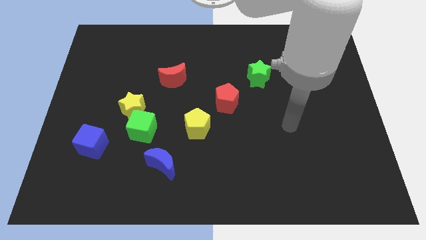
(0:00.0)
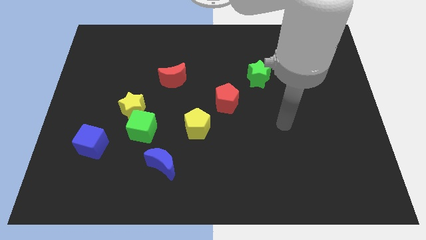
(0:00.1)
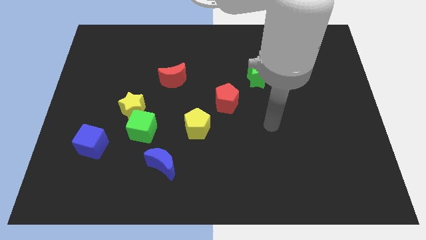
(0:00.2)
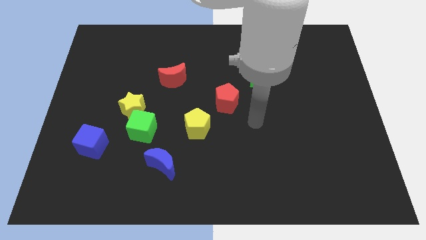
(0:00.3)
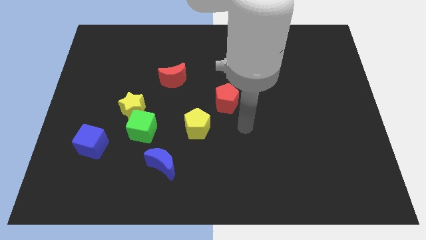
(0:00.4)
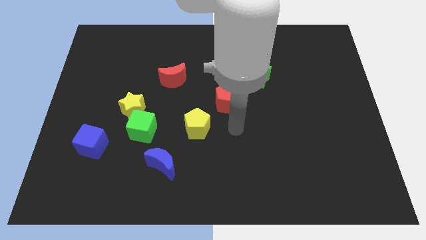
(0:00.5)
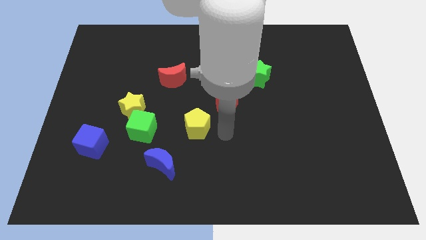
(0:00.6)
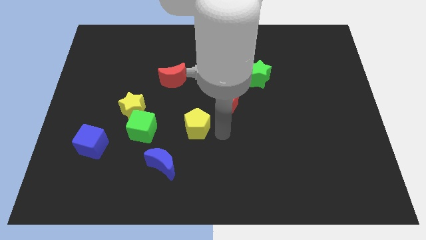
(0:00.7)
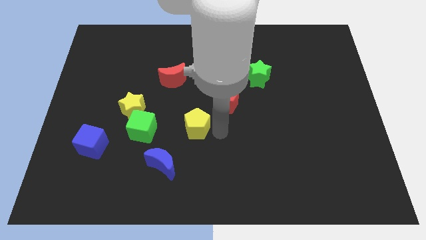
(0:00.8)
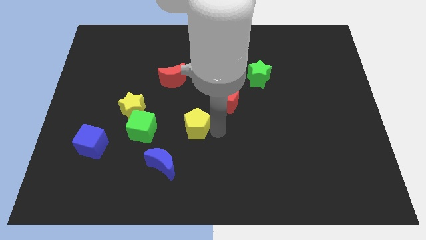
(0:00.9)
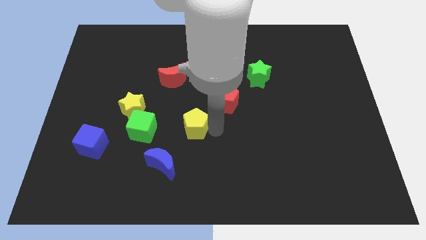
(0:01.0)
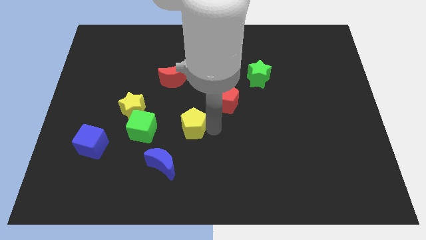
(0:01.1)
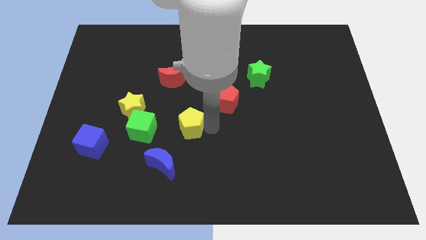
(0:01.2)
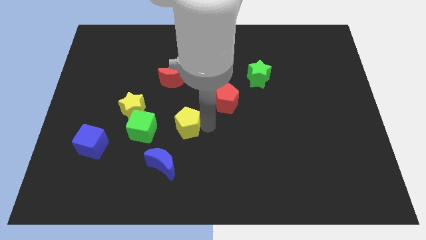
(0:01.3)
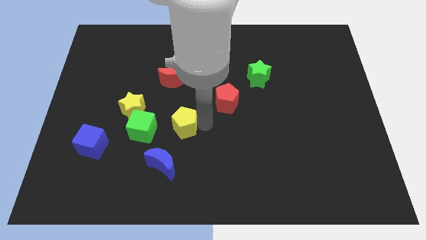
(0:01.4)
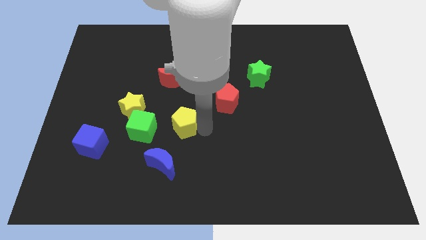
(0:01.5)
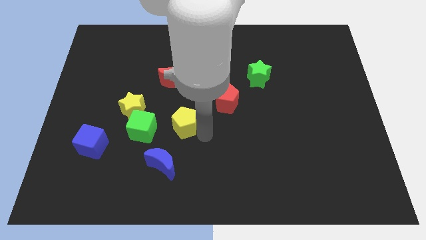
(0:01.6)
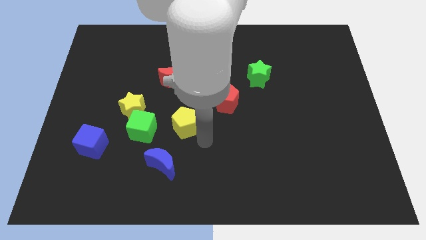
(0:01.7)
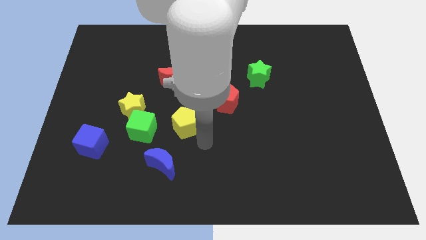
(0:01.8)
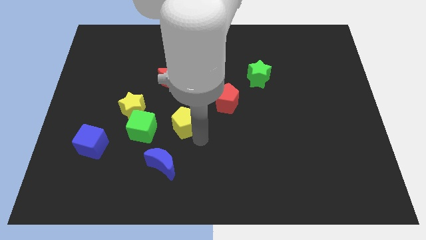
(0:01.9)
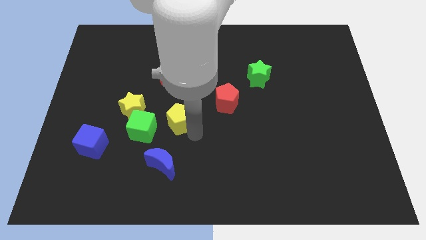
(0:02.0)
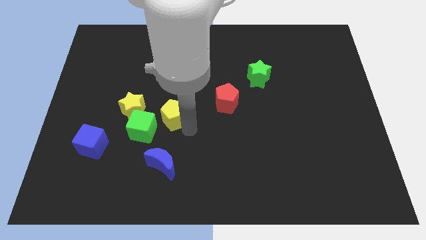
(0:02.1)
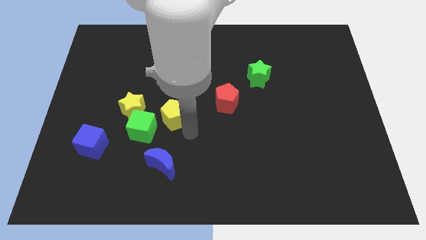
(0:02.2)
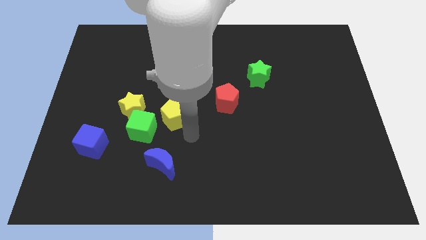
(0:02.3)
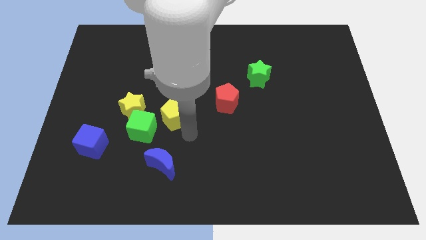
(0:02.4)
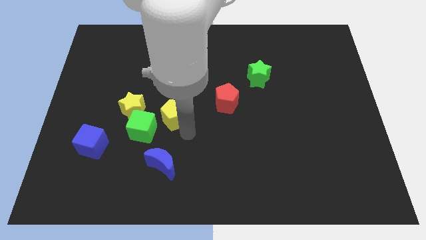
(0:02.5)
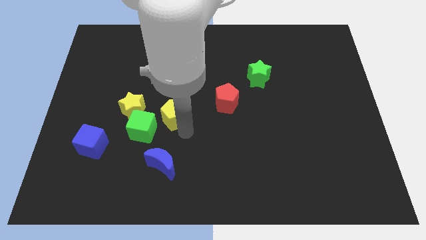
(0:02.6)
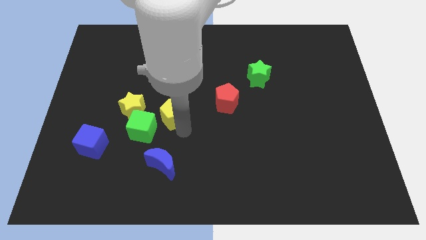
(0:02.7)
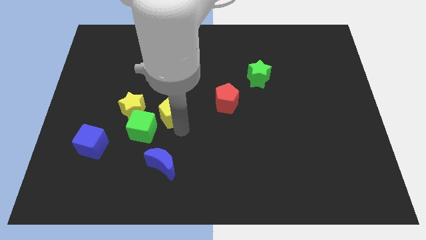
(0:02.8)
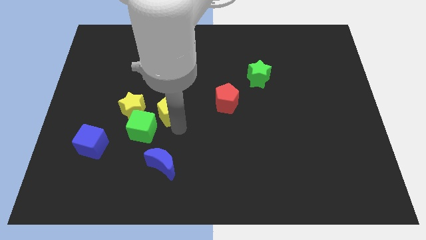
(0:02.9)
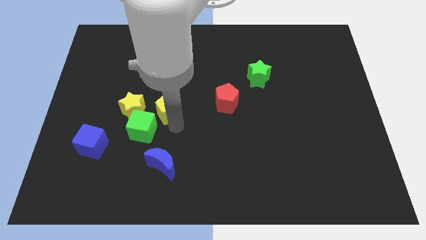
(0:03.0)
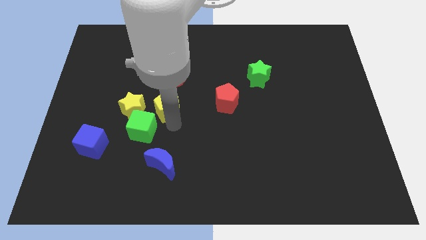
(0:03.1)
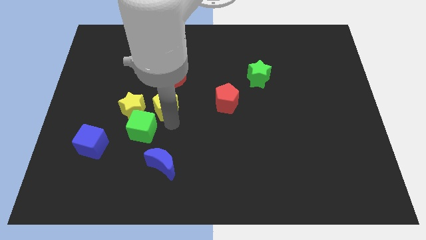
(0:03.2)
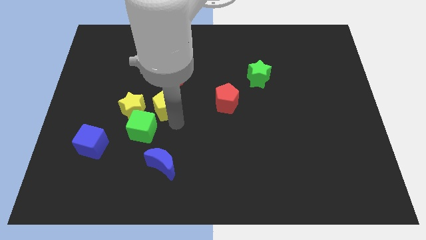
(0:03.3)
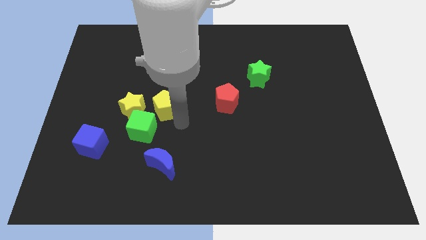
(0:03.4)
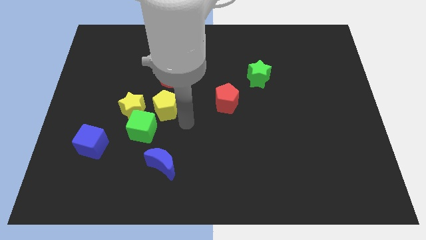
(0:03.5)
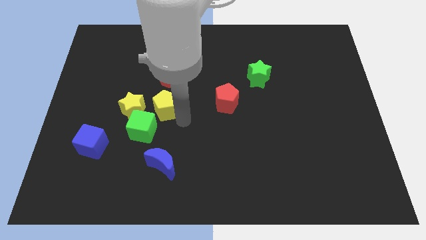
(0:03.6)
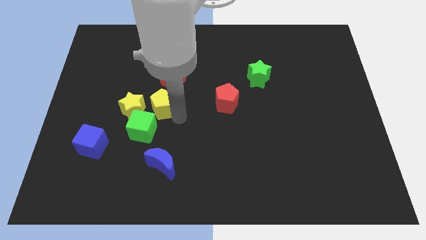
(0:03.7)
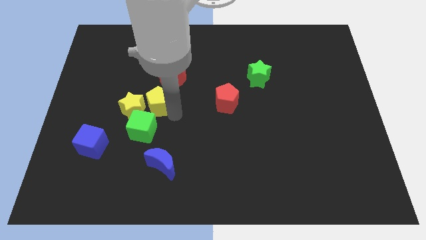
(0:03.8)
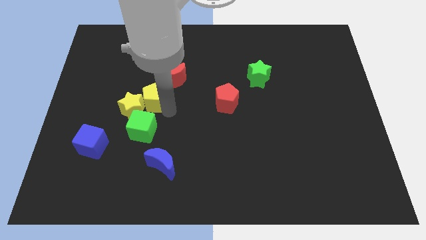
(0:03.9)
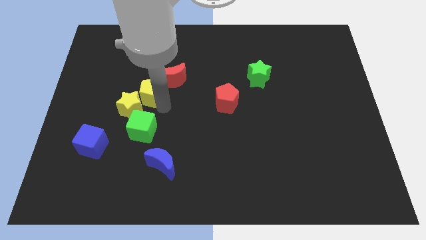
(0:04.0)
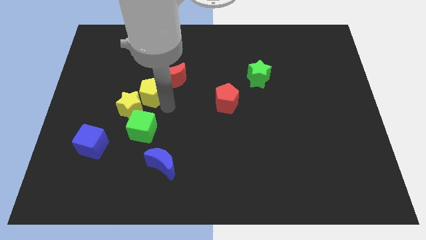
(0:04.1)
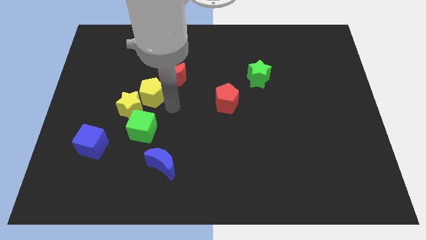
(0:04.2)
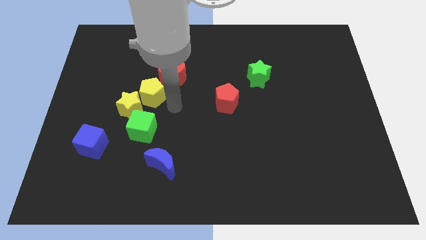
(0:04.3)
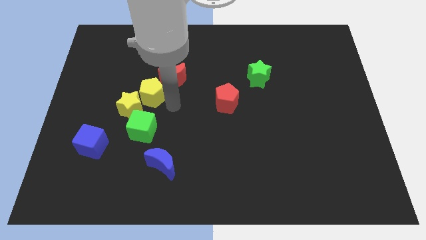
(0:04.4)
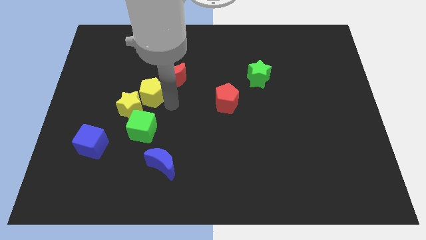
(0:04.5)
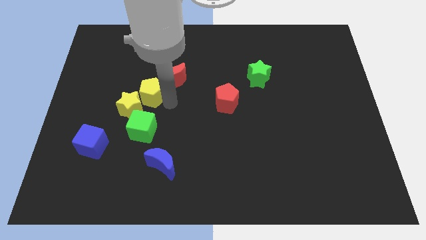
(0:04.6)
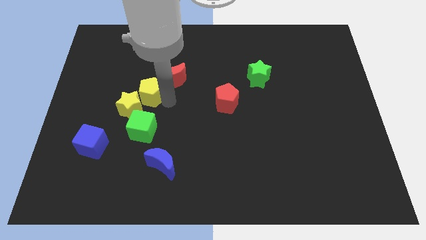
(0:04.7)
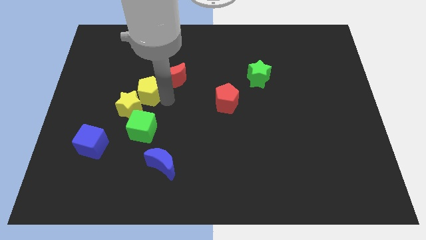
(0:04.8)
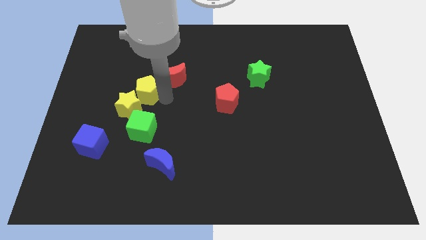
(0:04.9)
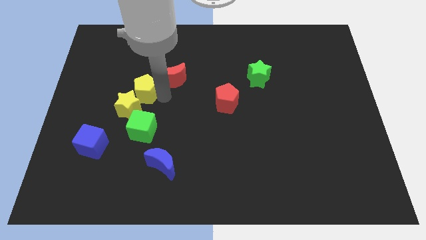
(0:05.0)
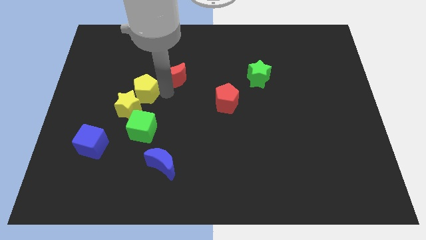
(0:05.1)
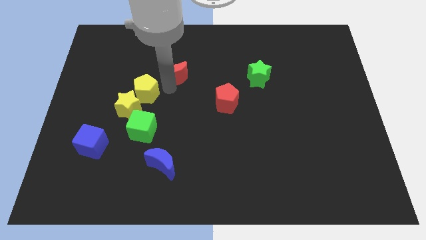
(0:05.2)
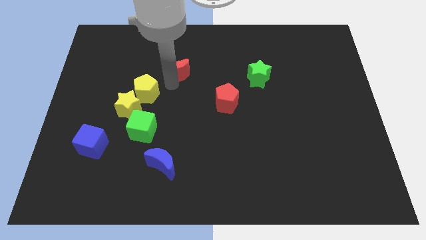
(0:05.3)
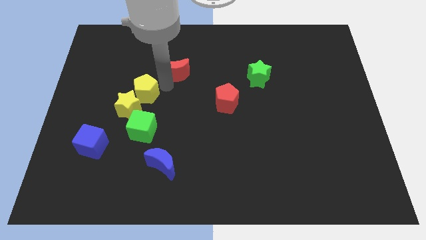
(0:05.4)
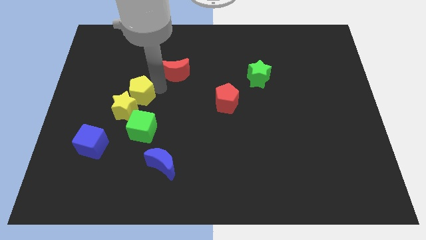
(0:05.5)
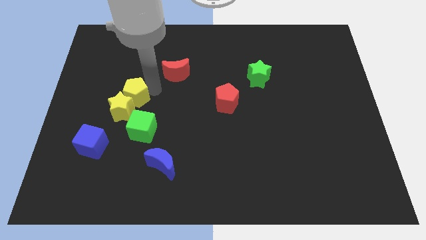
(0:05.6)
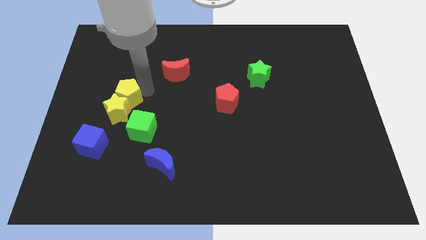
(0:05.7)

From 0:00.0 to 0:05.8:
push the yellow pentagon to the top left of the green cube

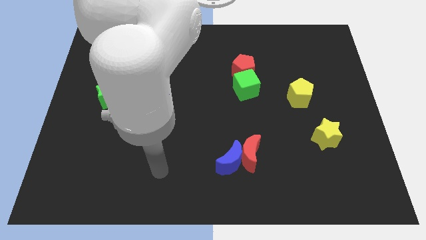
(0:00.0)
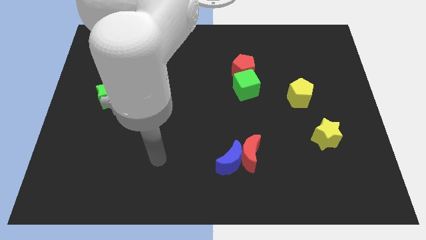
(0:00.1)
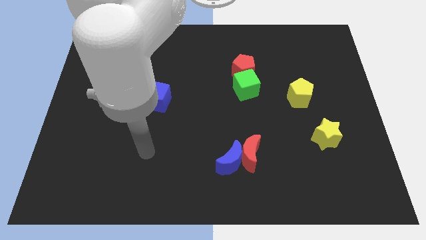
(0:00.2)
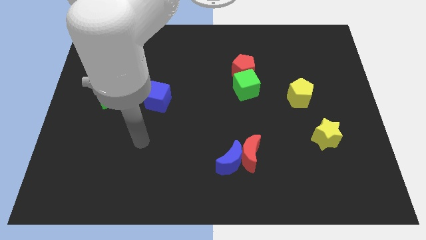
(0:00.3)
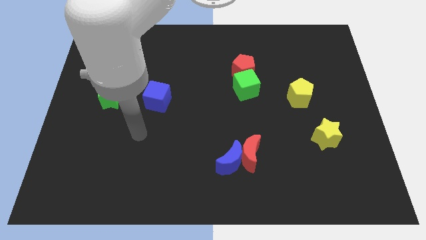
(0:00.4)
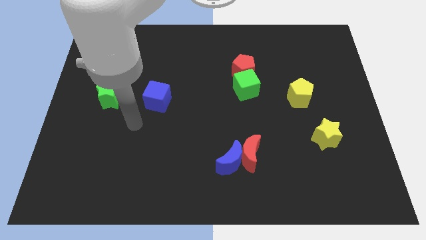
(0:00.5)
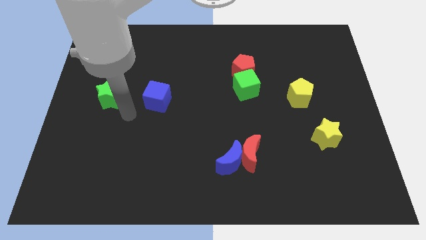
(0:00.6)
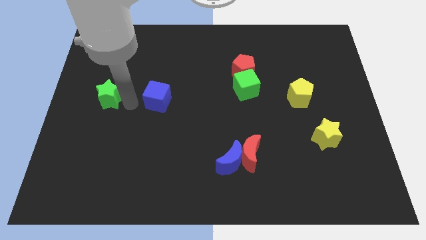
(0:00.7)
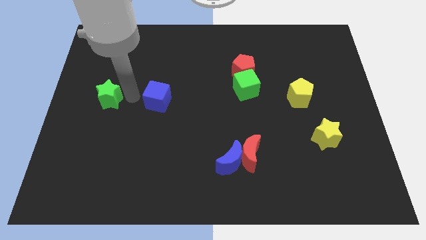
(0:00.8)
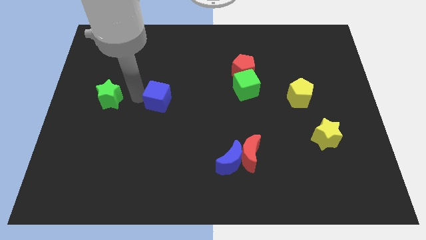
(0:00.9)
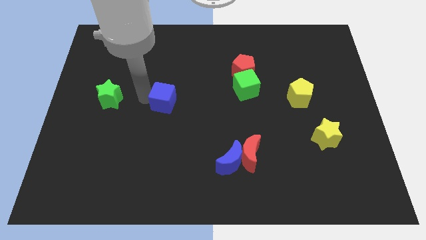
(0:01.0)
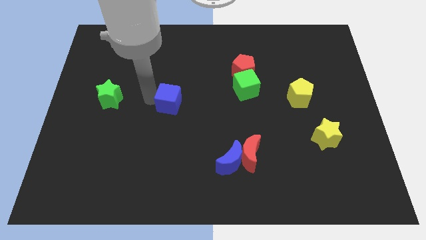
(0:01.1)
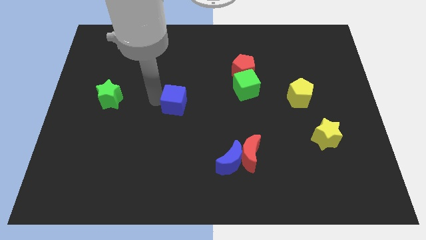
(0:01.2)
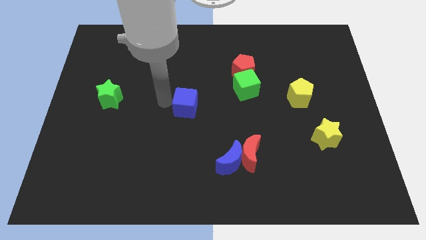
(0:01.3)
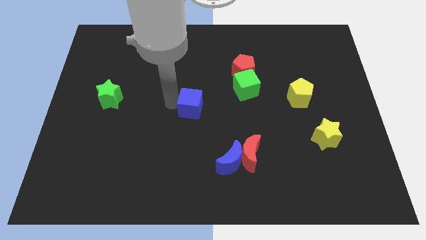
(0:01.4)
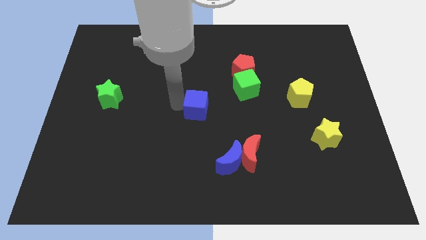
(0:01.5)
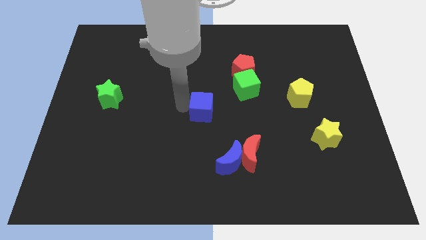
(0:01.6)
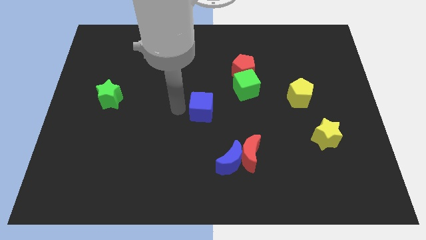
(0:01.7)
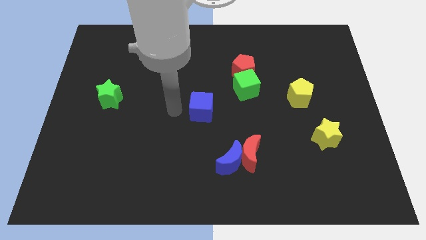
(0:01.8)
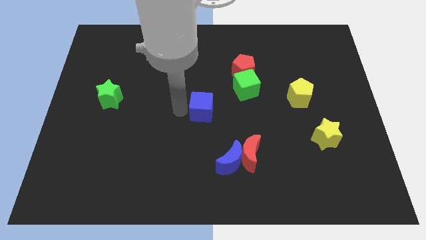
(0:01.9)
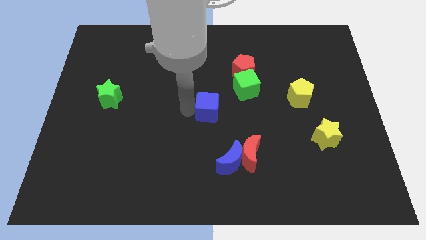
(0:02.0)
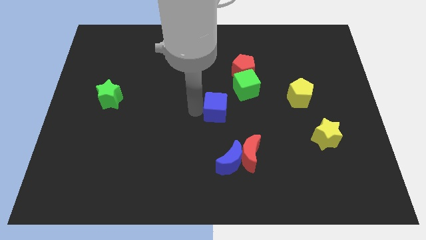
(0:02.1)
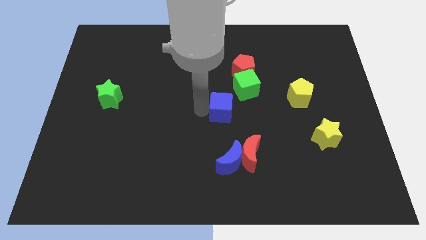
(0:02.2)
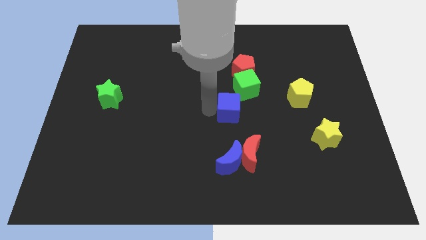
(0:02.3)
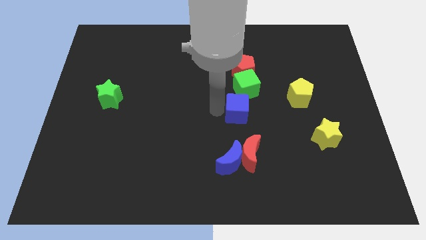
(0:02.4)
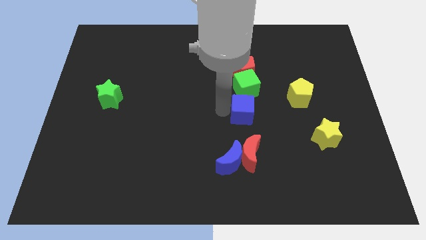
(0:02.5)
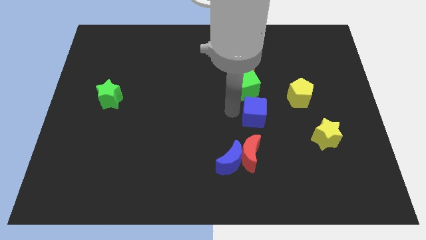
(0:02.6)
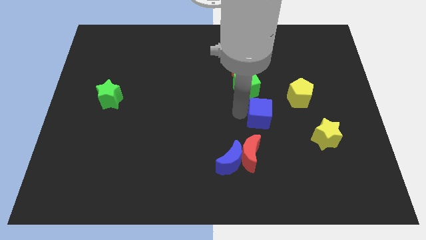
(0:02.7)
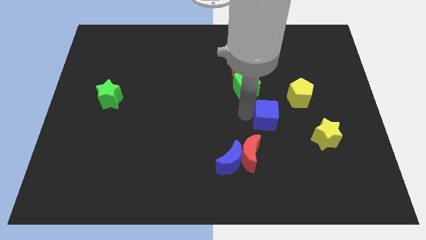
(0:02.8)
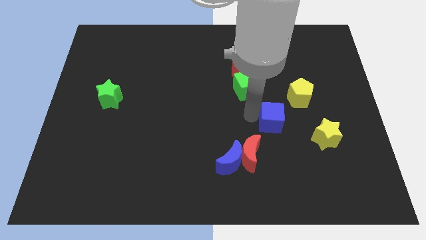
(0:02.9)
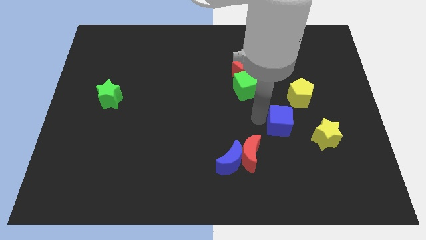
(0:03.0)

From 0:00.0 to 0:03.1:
slide the blue cube to the top left of the yellow star
